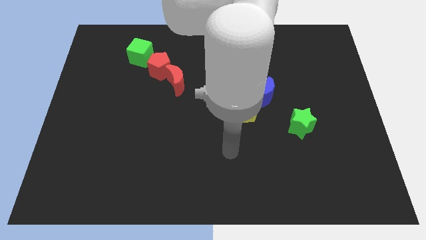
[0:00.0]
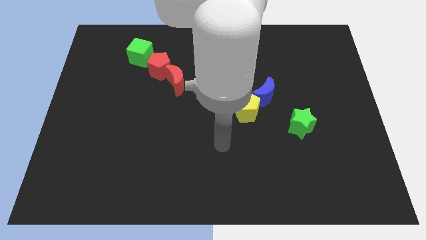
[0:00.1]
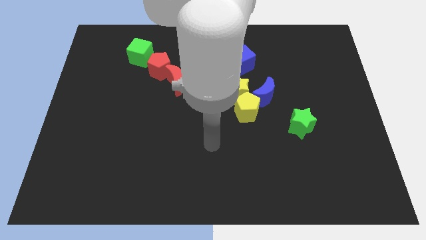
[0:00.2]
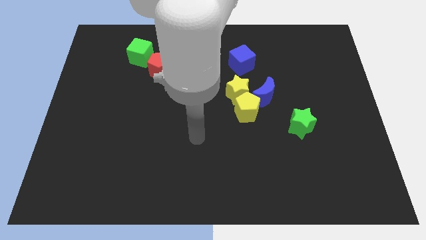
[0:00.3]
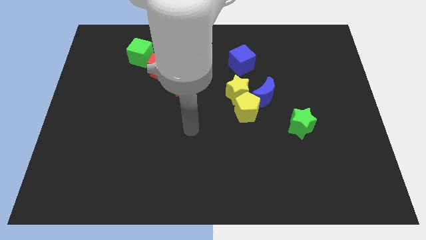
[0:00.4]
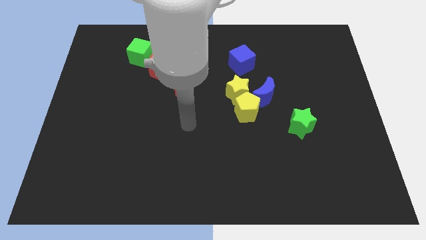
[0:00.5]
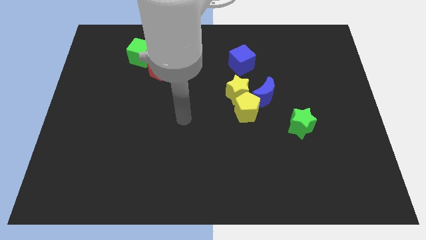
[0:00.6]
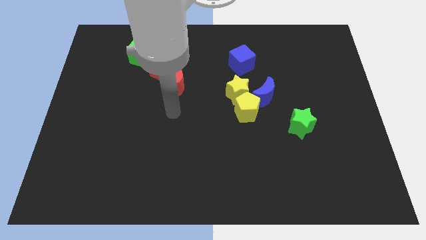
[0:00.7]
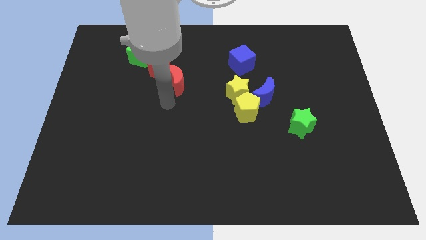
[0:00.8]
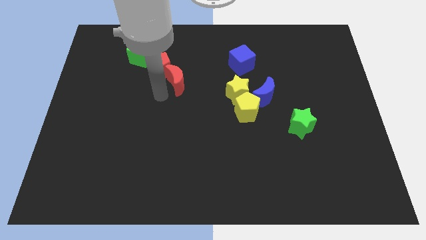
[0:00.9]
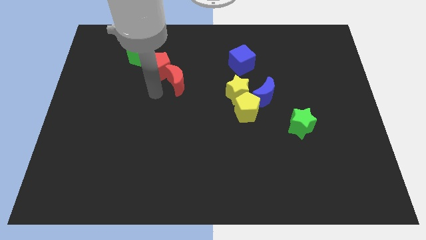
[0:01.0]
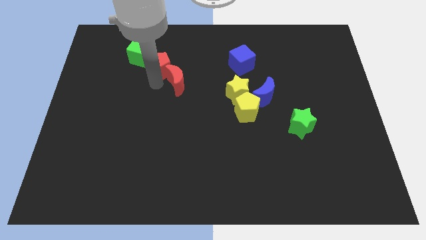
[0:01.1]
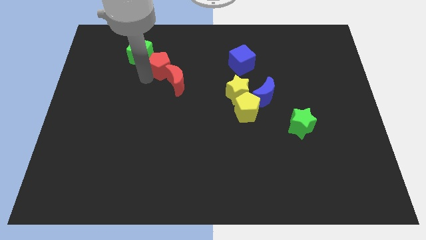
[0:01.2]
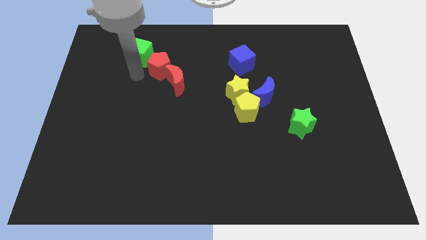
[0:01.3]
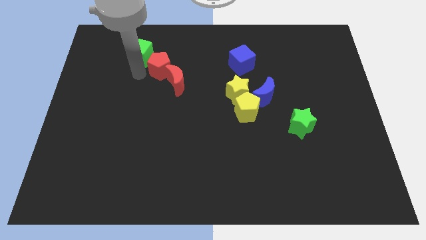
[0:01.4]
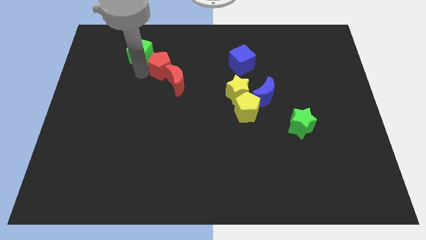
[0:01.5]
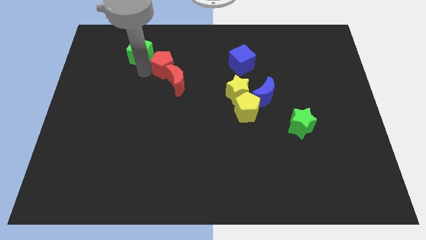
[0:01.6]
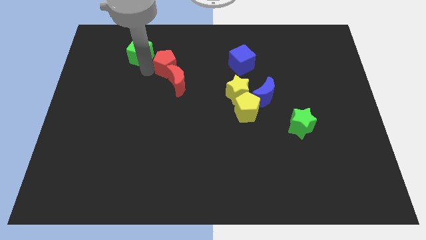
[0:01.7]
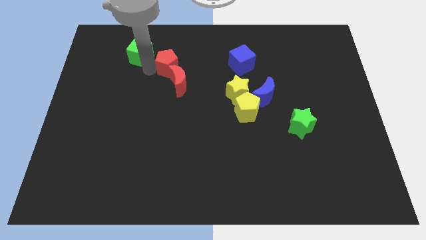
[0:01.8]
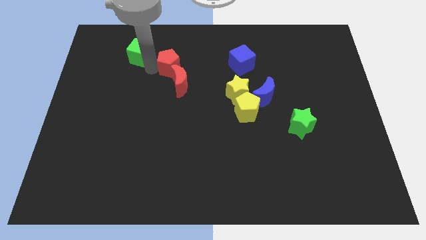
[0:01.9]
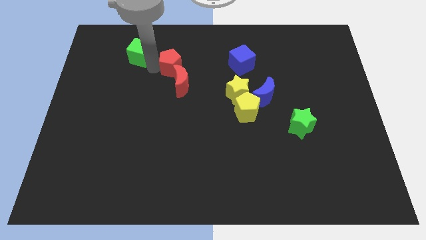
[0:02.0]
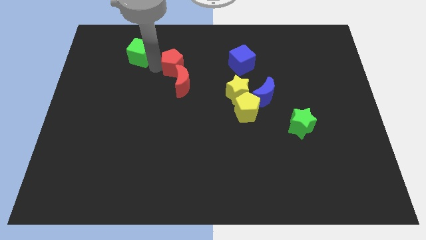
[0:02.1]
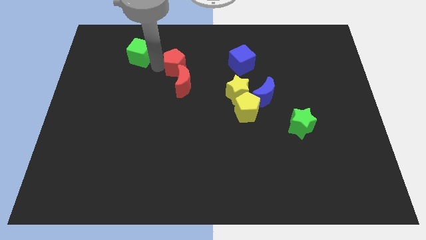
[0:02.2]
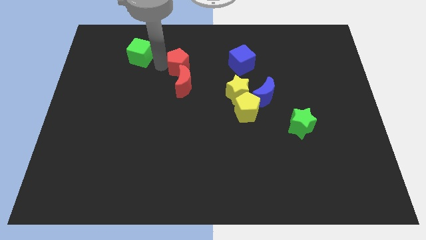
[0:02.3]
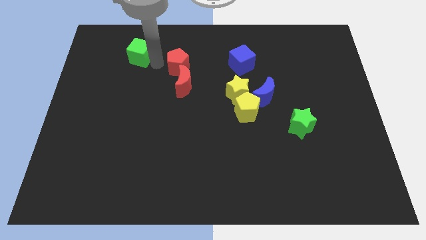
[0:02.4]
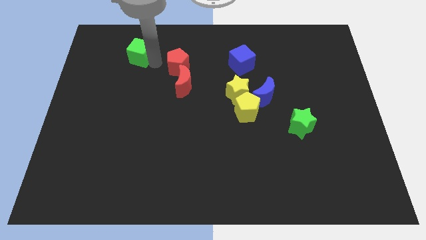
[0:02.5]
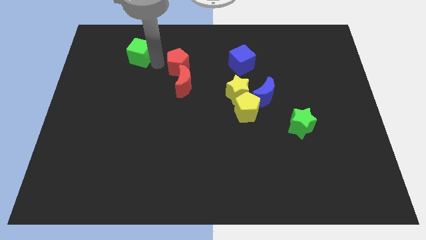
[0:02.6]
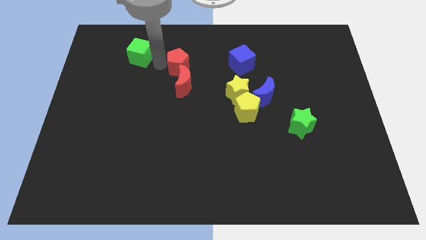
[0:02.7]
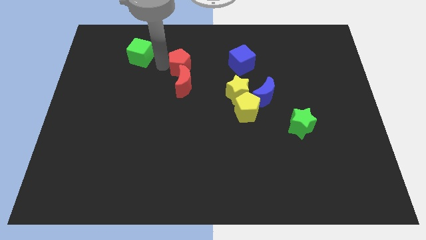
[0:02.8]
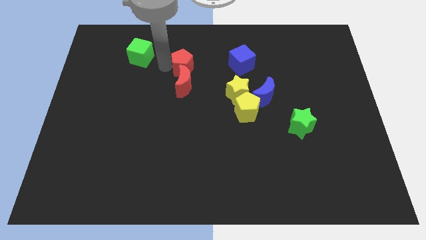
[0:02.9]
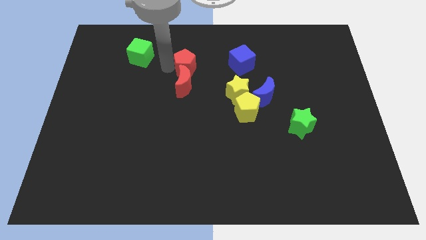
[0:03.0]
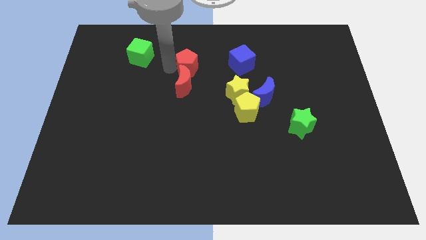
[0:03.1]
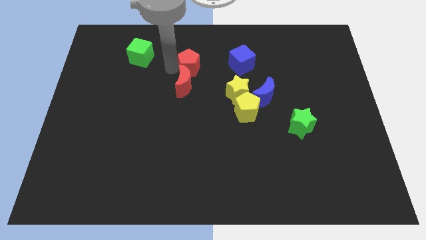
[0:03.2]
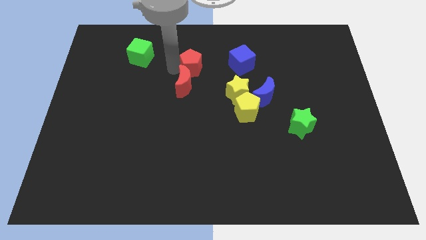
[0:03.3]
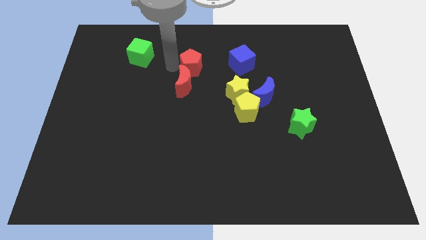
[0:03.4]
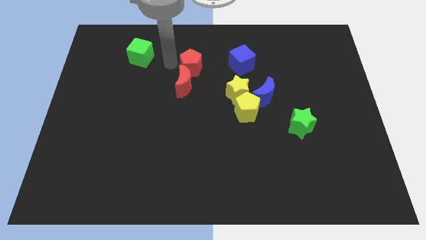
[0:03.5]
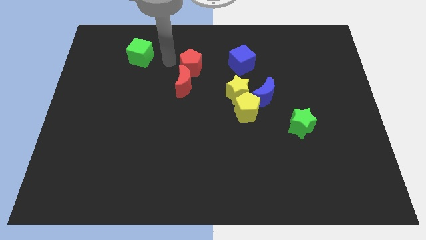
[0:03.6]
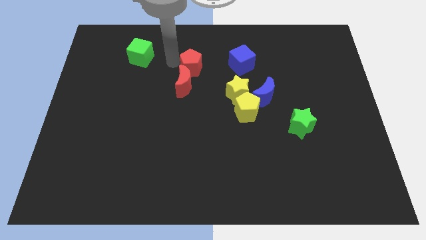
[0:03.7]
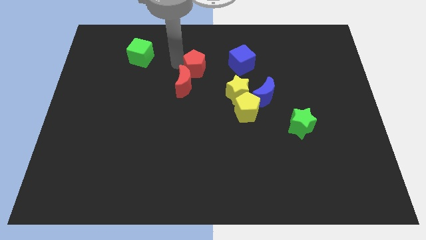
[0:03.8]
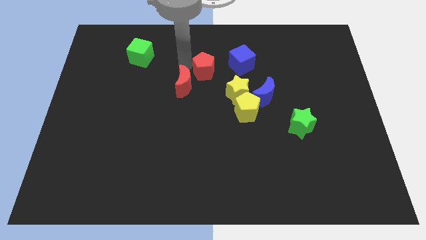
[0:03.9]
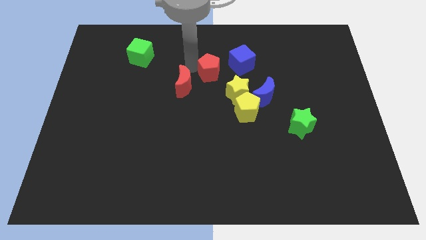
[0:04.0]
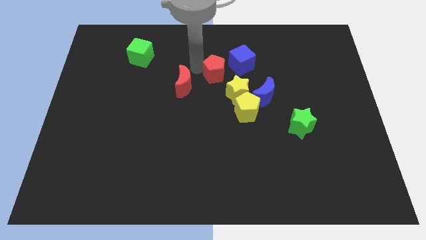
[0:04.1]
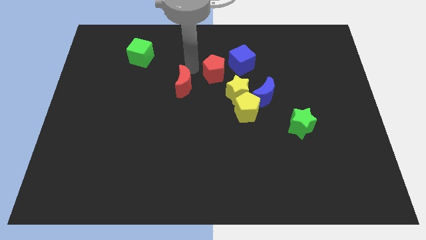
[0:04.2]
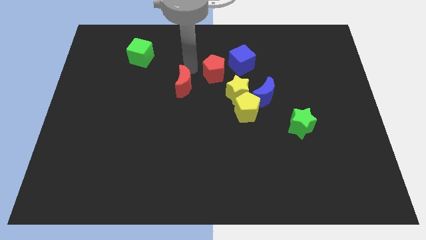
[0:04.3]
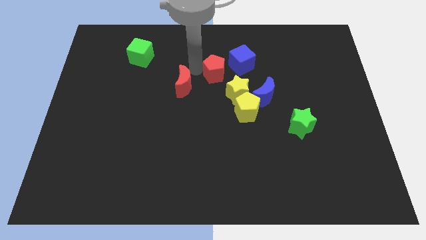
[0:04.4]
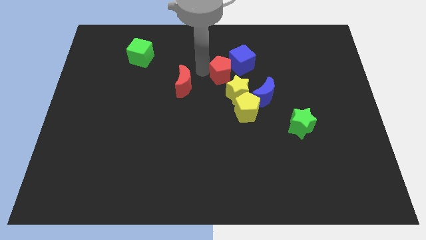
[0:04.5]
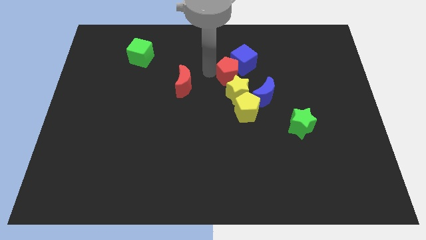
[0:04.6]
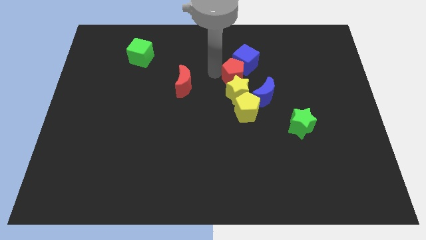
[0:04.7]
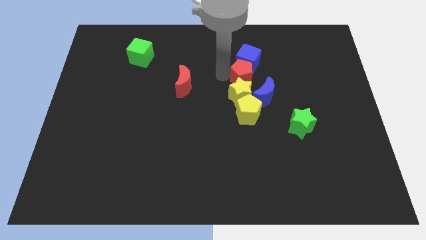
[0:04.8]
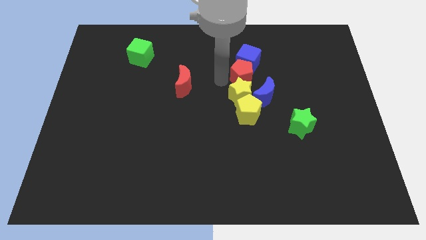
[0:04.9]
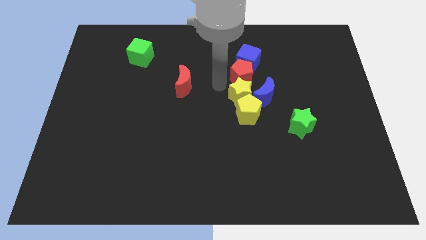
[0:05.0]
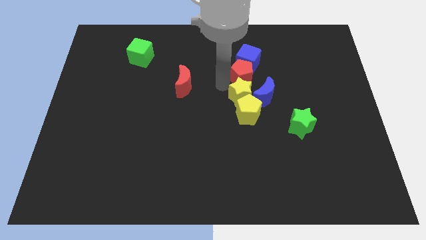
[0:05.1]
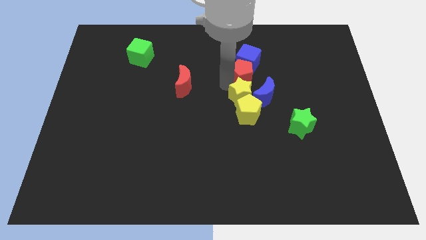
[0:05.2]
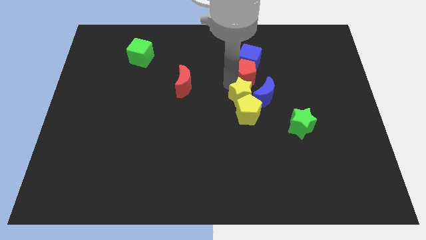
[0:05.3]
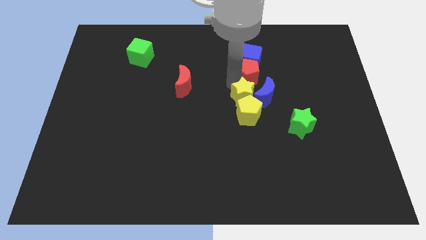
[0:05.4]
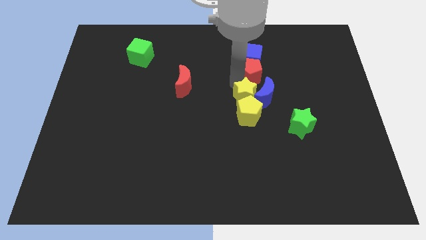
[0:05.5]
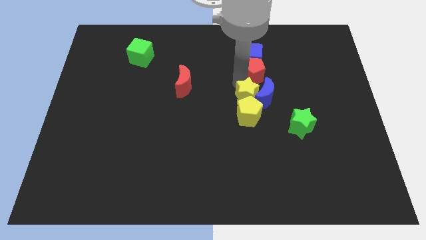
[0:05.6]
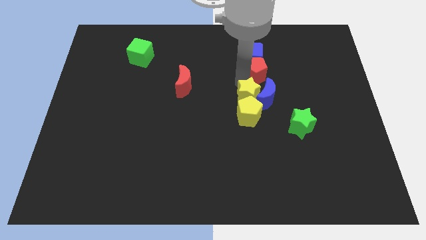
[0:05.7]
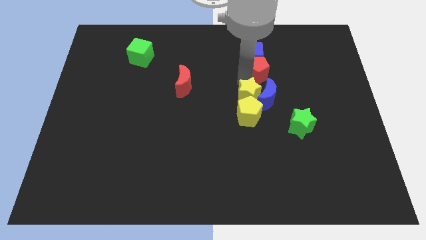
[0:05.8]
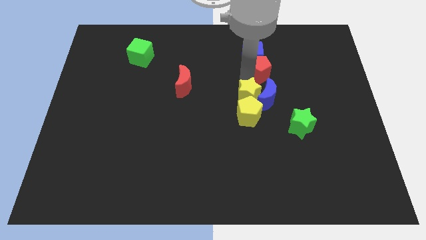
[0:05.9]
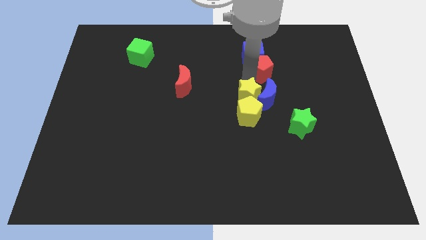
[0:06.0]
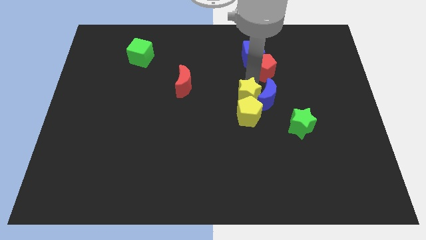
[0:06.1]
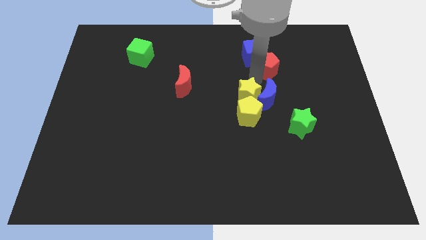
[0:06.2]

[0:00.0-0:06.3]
move the red pentagon right of the blue cube

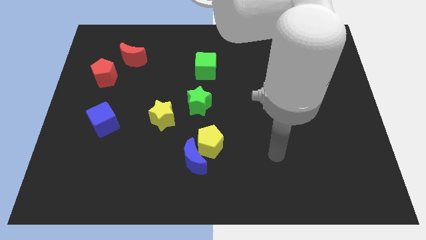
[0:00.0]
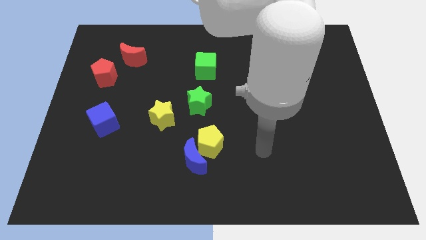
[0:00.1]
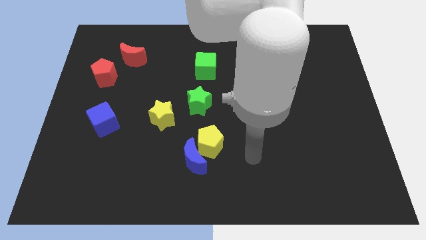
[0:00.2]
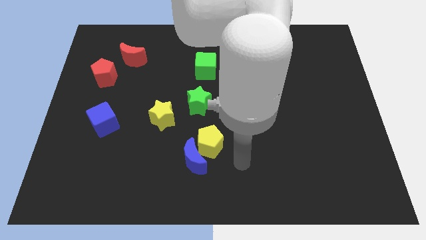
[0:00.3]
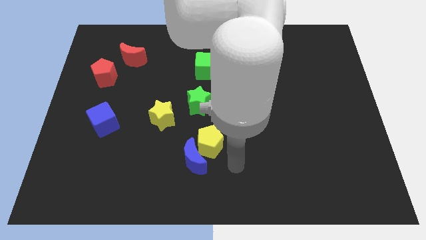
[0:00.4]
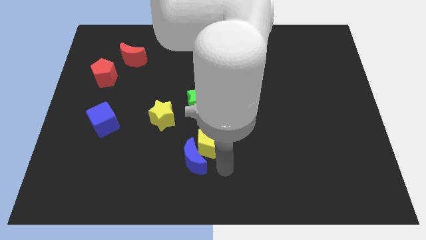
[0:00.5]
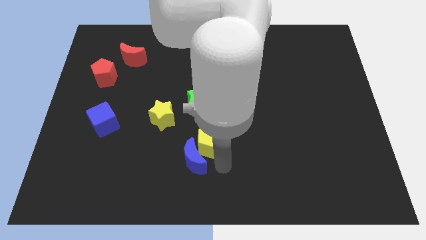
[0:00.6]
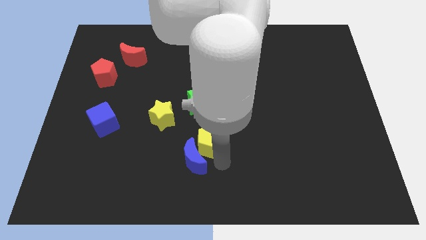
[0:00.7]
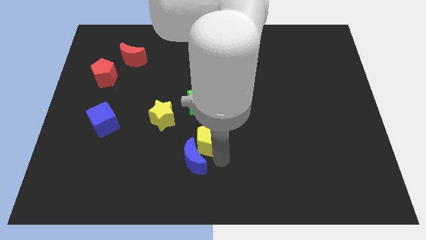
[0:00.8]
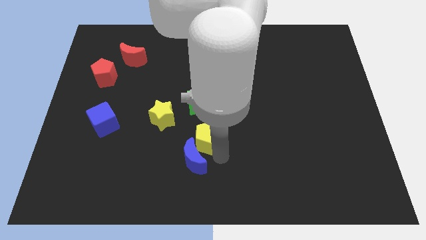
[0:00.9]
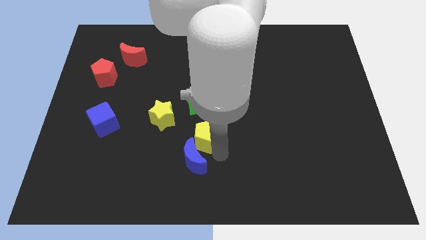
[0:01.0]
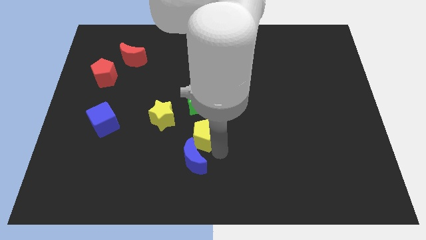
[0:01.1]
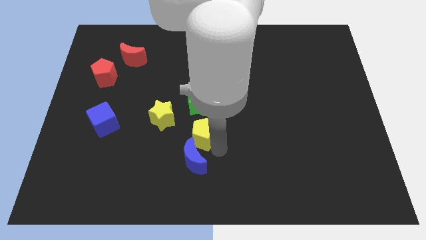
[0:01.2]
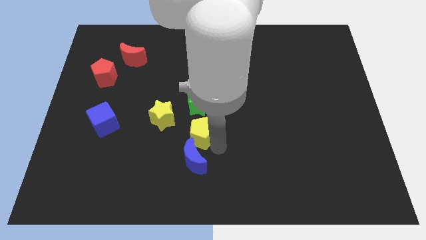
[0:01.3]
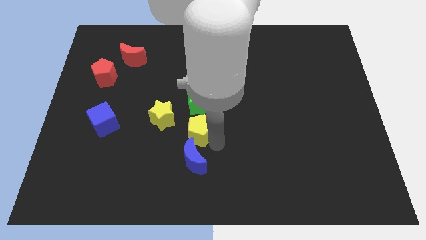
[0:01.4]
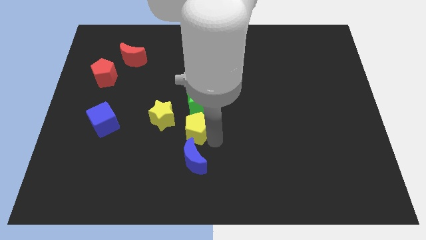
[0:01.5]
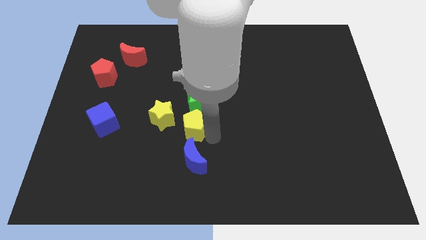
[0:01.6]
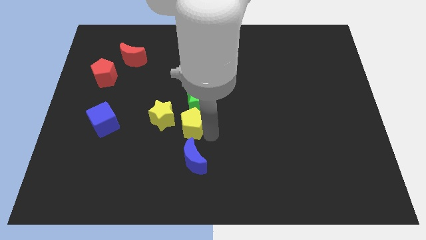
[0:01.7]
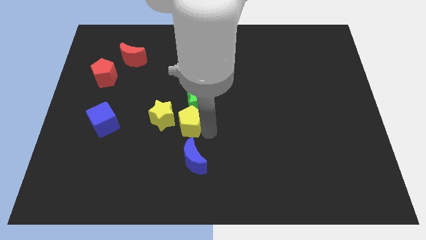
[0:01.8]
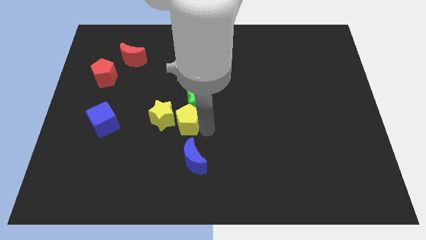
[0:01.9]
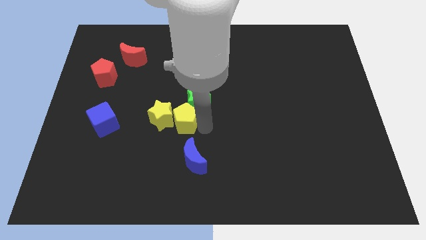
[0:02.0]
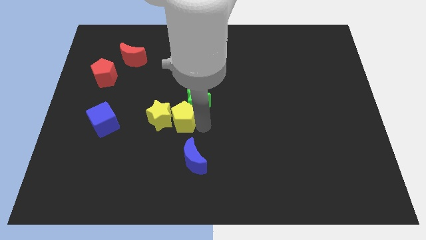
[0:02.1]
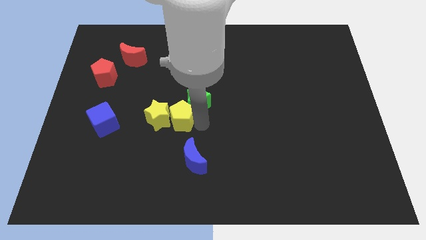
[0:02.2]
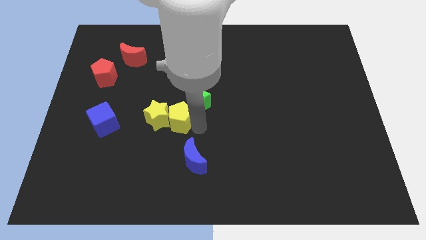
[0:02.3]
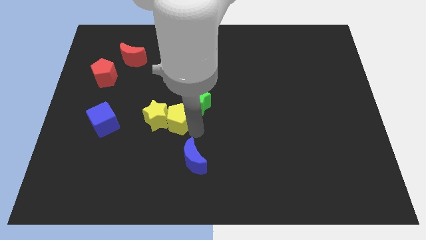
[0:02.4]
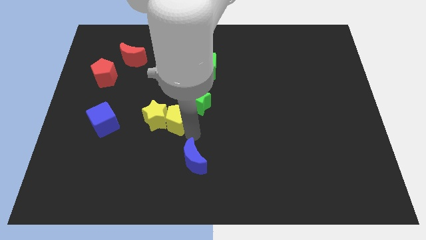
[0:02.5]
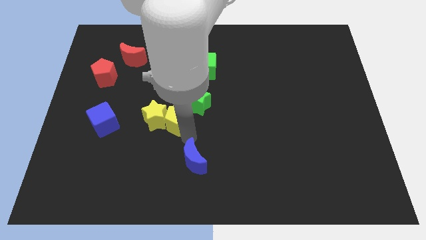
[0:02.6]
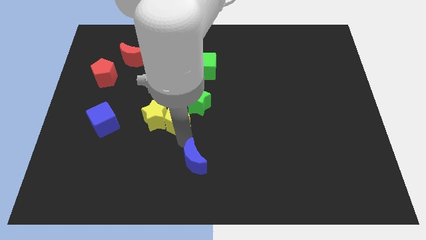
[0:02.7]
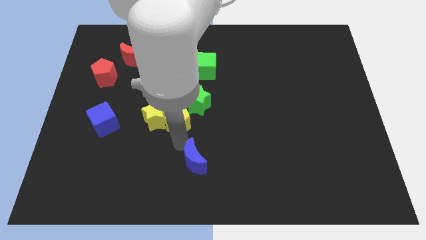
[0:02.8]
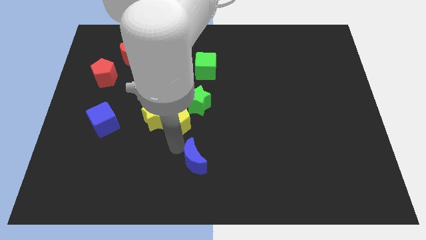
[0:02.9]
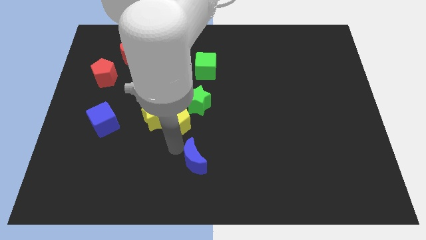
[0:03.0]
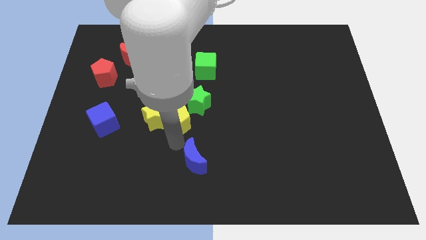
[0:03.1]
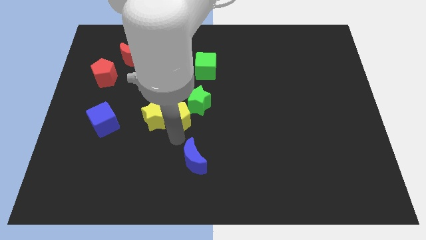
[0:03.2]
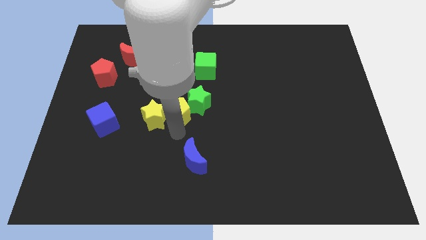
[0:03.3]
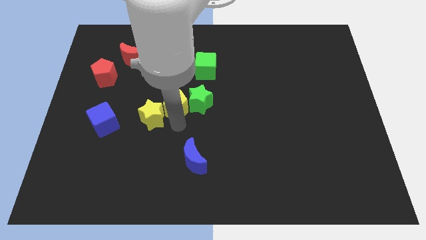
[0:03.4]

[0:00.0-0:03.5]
put the yellow pentagon to the top left of the green star
